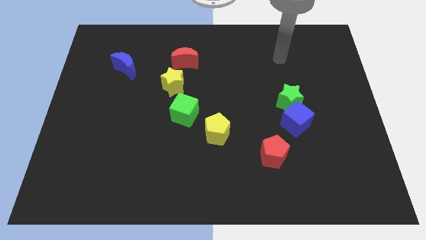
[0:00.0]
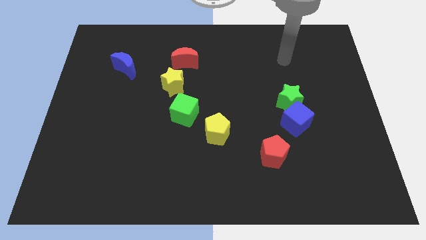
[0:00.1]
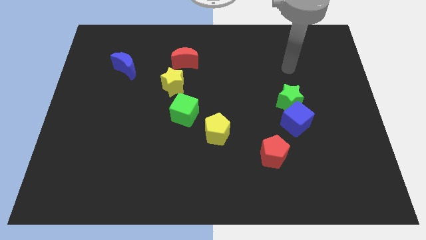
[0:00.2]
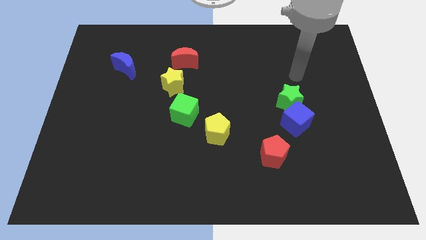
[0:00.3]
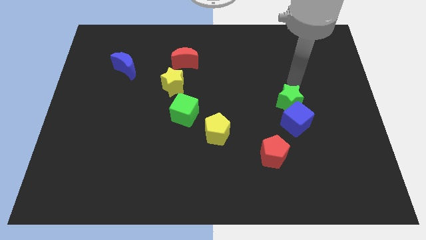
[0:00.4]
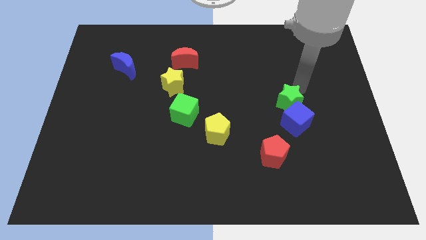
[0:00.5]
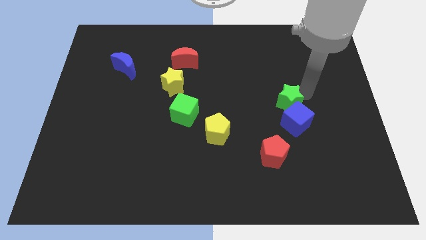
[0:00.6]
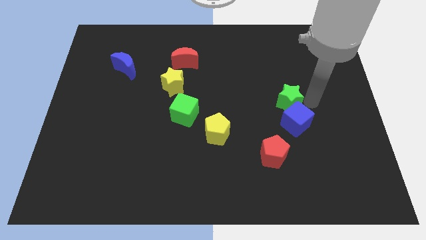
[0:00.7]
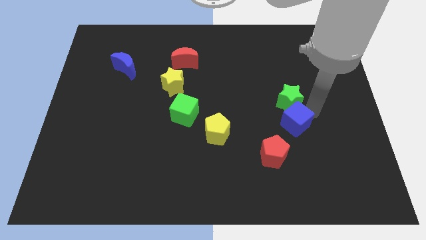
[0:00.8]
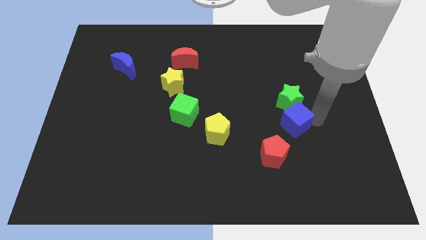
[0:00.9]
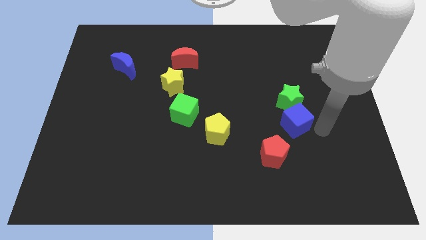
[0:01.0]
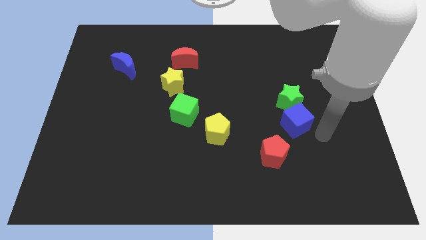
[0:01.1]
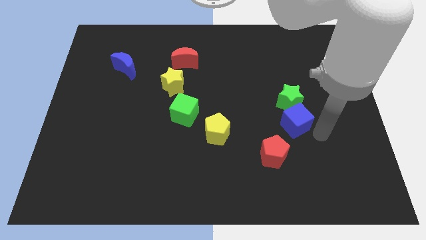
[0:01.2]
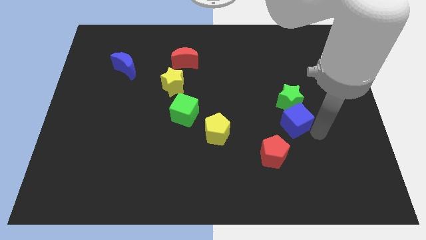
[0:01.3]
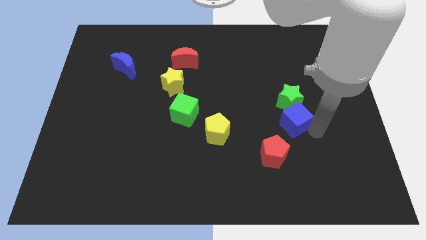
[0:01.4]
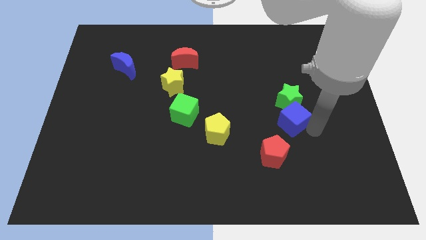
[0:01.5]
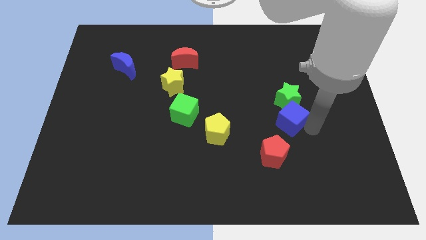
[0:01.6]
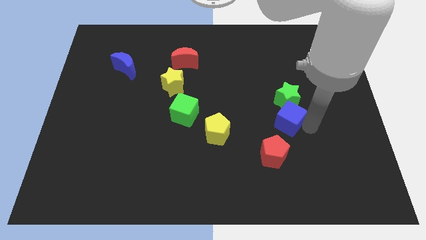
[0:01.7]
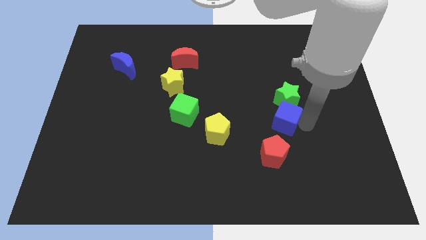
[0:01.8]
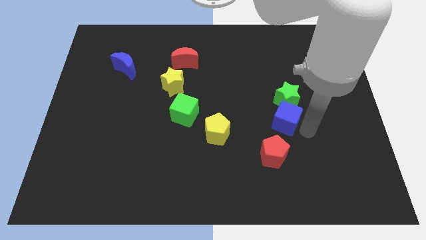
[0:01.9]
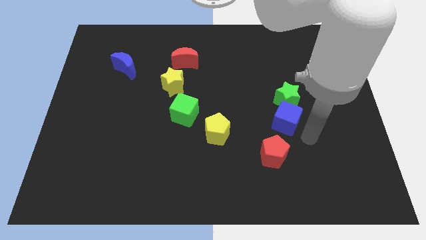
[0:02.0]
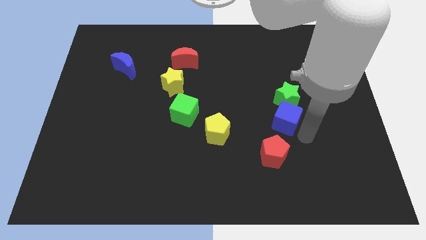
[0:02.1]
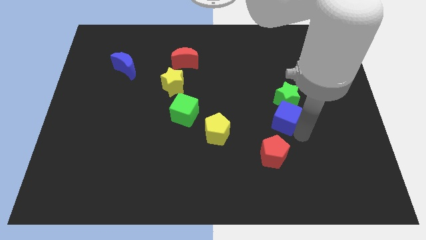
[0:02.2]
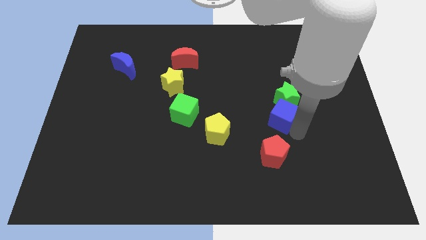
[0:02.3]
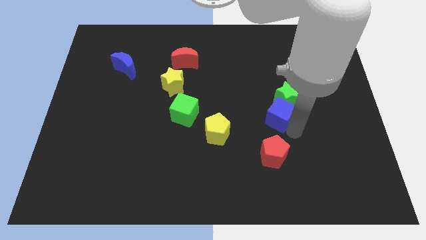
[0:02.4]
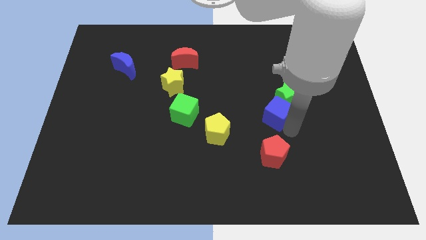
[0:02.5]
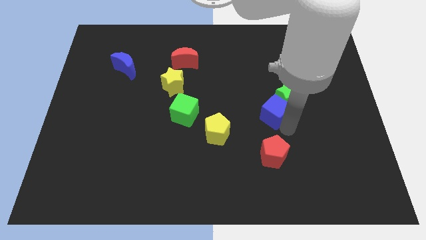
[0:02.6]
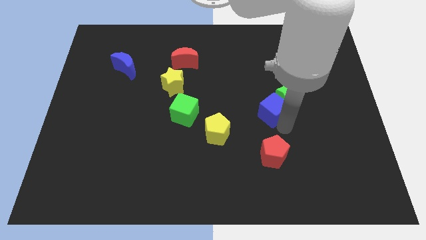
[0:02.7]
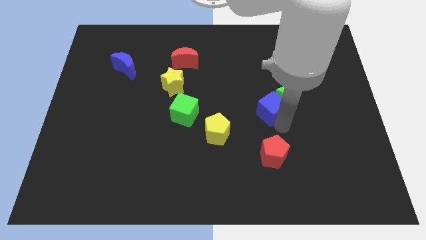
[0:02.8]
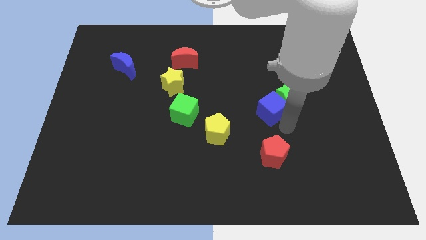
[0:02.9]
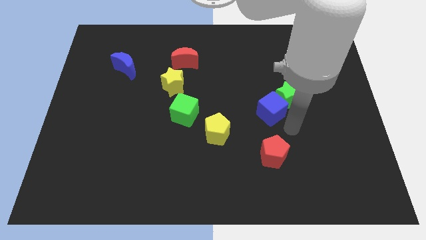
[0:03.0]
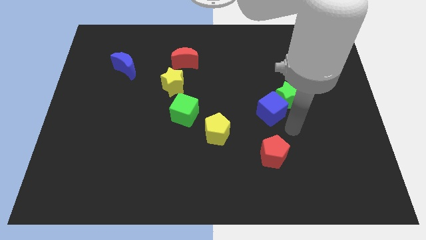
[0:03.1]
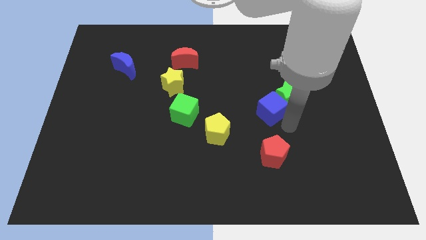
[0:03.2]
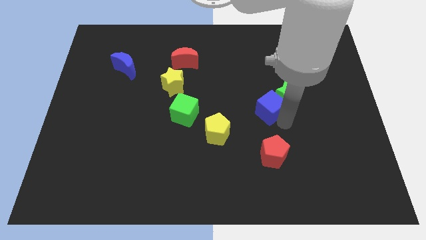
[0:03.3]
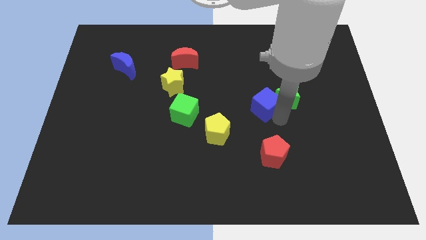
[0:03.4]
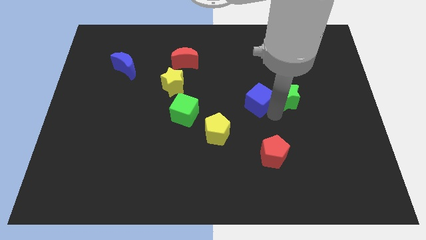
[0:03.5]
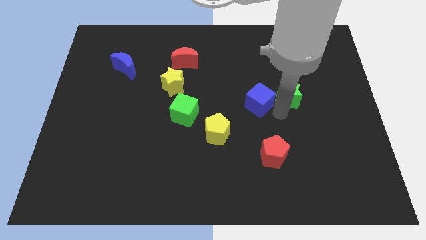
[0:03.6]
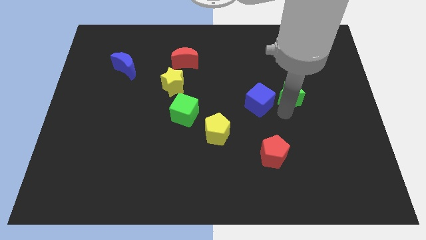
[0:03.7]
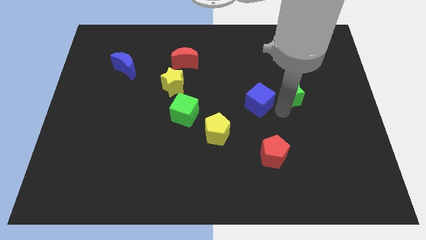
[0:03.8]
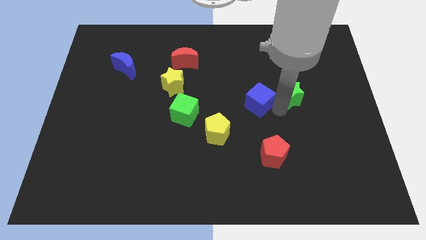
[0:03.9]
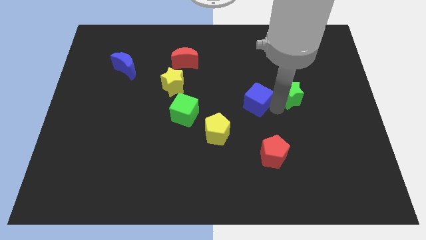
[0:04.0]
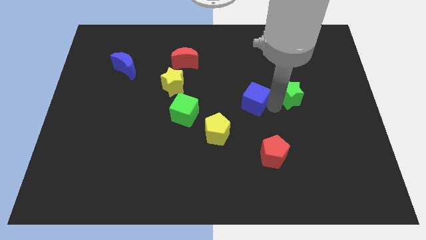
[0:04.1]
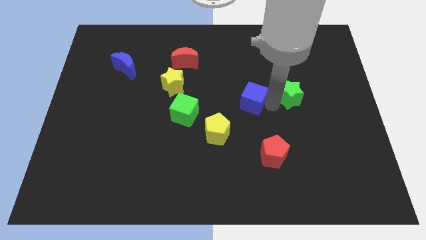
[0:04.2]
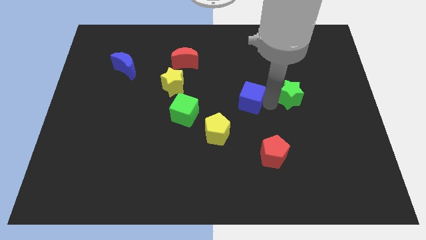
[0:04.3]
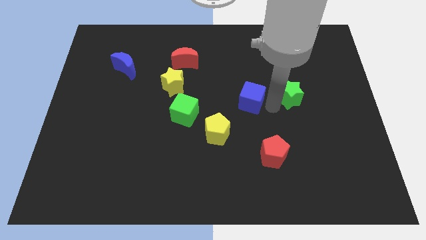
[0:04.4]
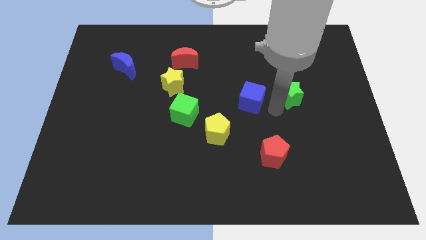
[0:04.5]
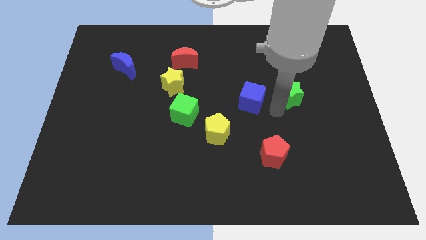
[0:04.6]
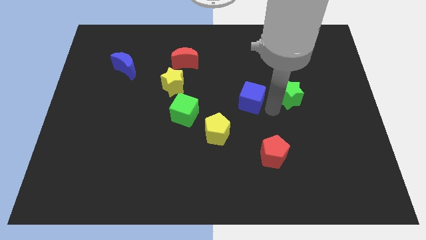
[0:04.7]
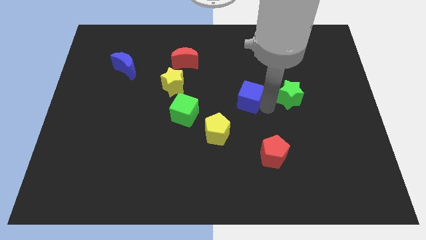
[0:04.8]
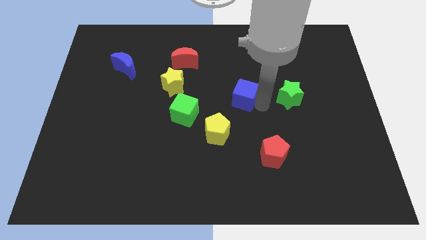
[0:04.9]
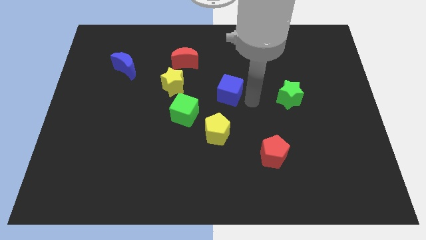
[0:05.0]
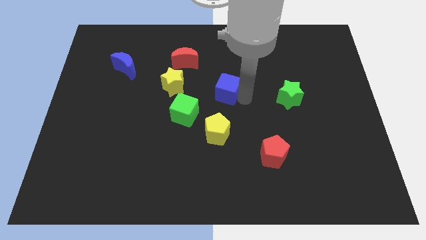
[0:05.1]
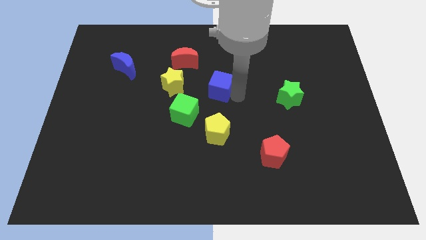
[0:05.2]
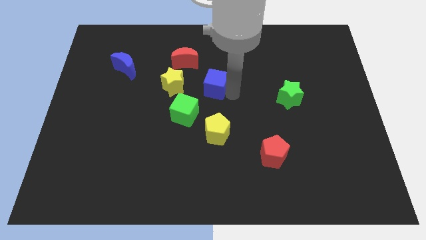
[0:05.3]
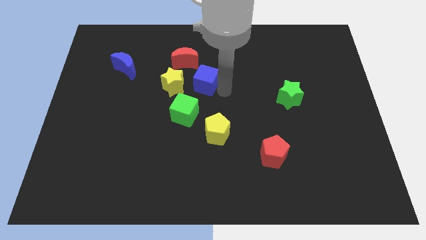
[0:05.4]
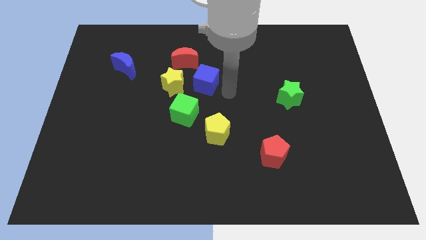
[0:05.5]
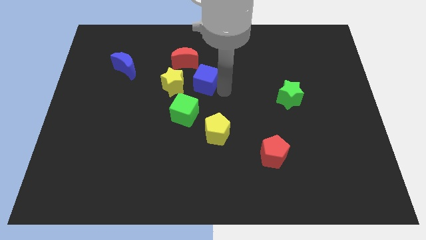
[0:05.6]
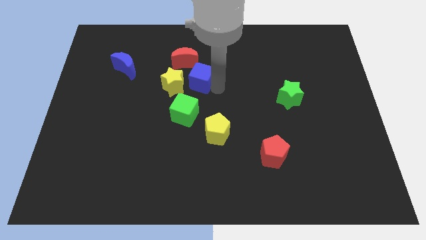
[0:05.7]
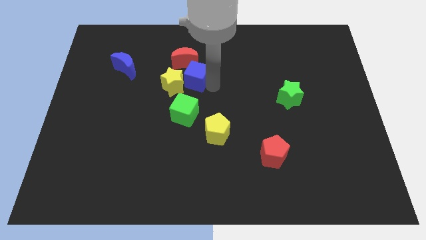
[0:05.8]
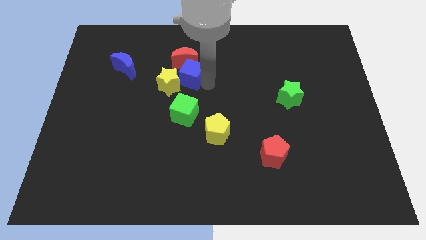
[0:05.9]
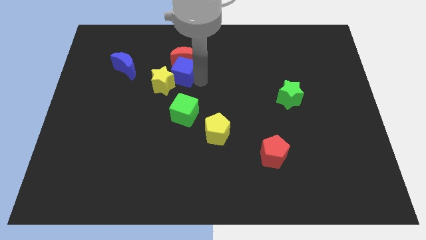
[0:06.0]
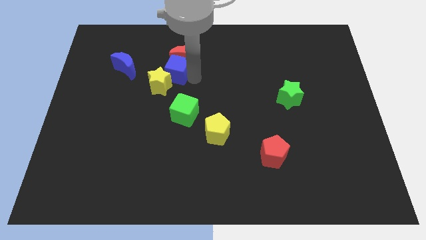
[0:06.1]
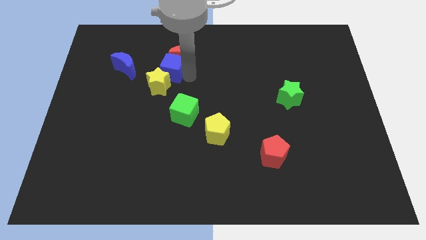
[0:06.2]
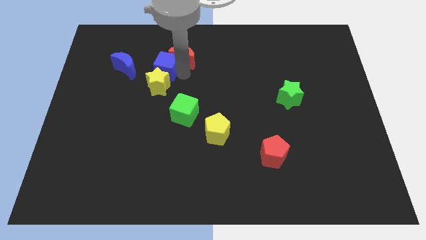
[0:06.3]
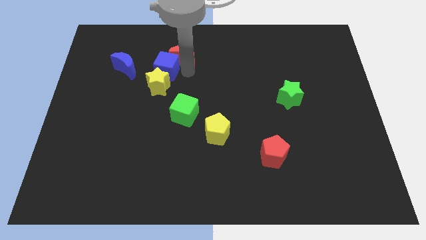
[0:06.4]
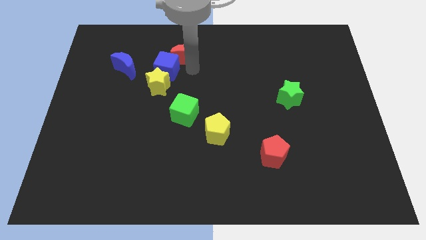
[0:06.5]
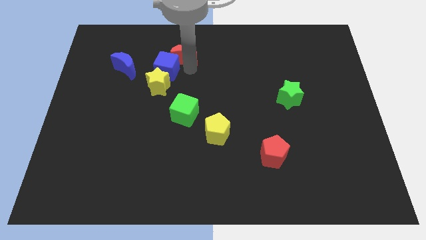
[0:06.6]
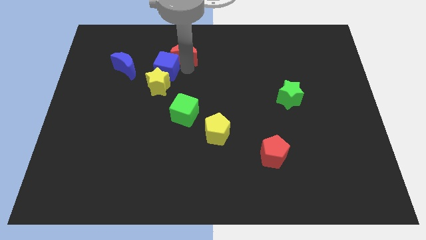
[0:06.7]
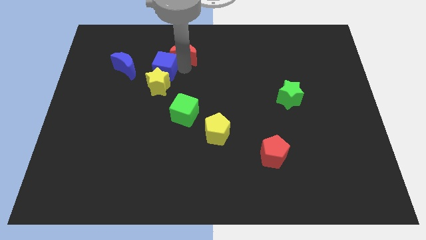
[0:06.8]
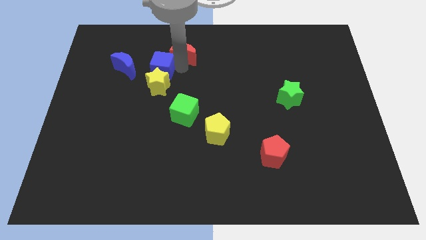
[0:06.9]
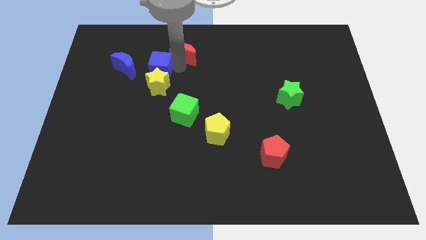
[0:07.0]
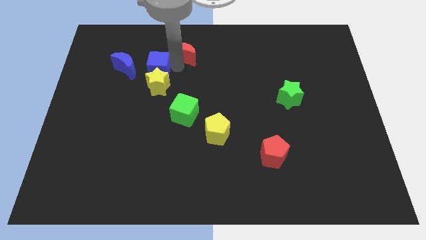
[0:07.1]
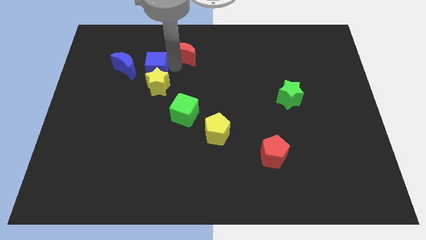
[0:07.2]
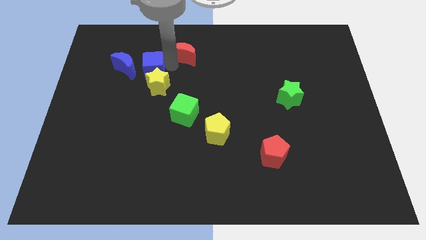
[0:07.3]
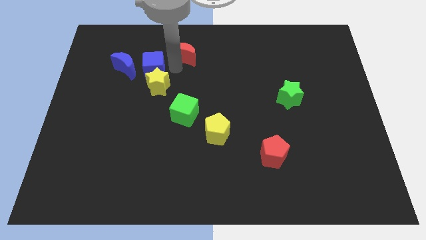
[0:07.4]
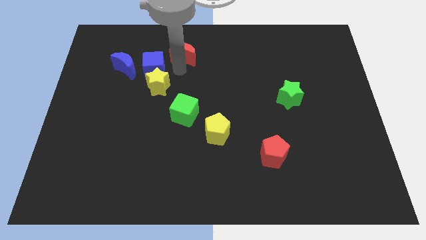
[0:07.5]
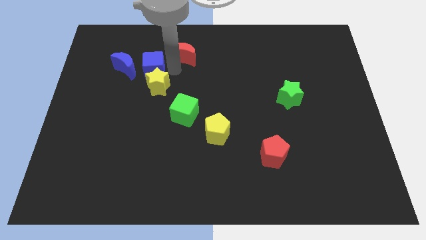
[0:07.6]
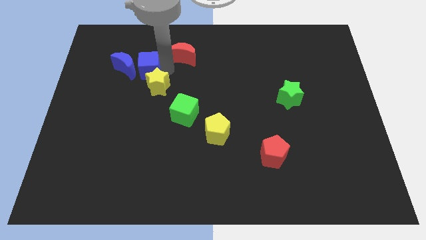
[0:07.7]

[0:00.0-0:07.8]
move the blue cube towards the blue moon

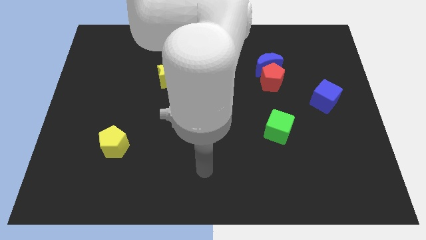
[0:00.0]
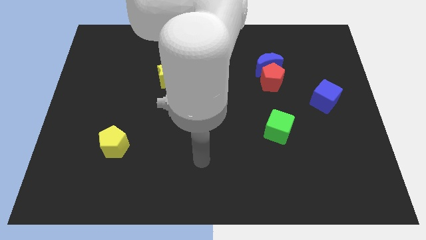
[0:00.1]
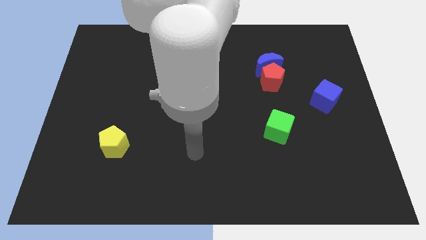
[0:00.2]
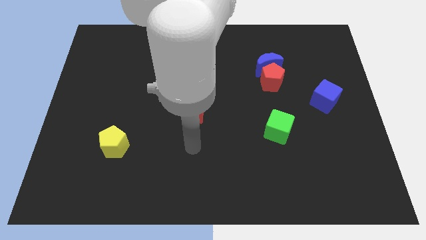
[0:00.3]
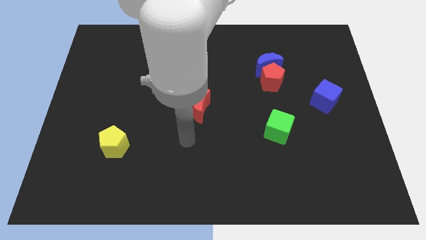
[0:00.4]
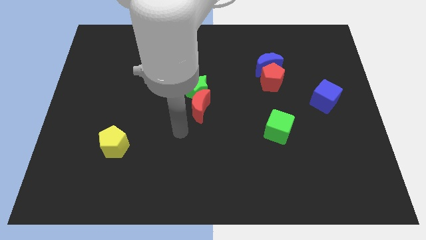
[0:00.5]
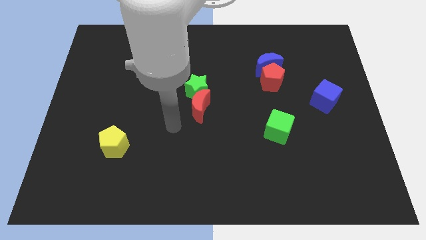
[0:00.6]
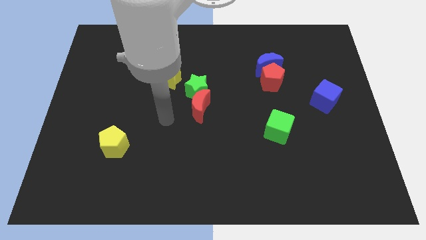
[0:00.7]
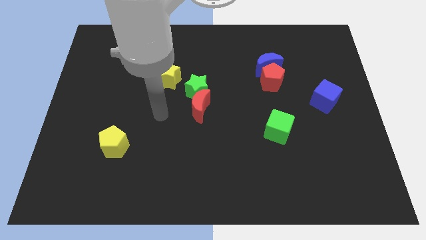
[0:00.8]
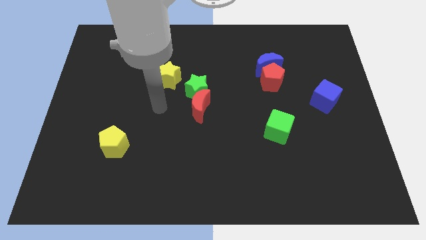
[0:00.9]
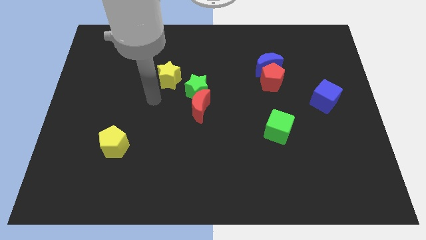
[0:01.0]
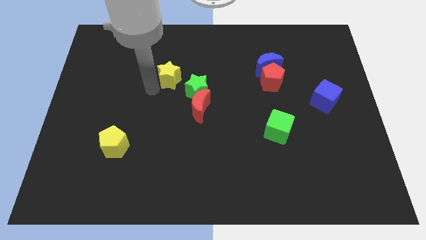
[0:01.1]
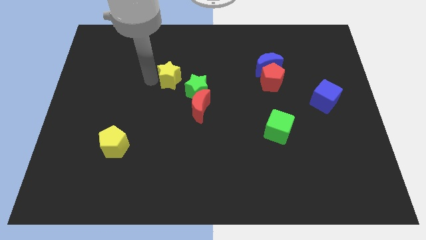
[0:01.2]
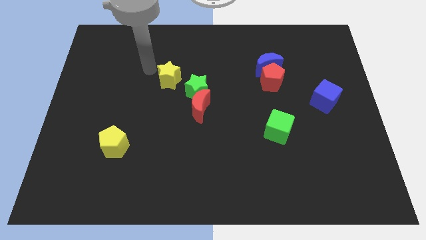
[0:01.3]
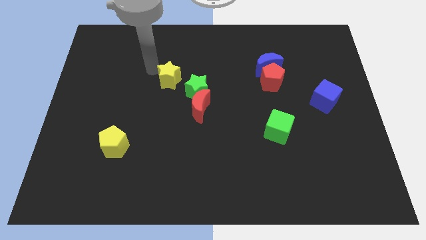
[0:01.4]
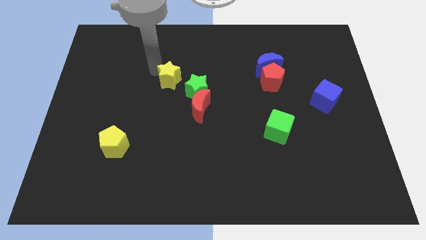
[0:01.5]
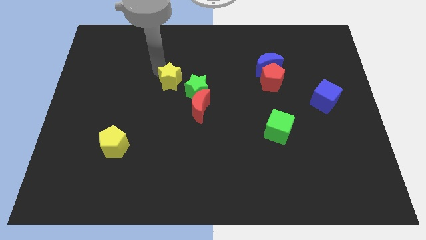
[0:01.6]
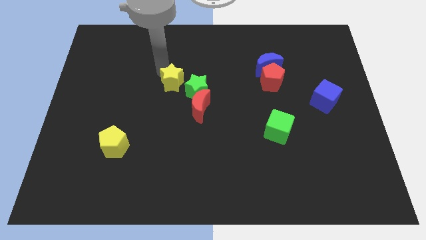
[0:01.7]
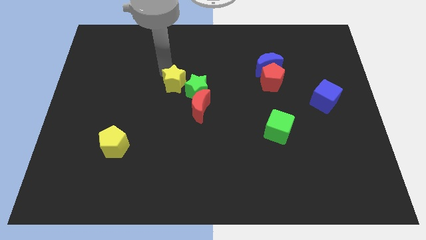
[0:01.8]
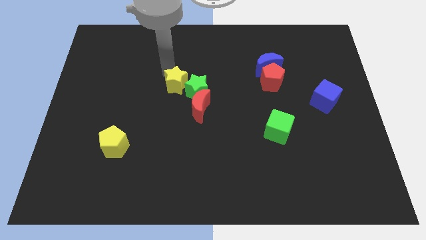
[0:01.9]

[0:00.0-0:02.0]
move the yellow star to the green star
